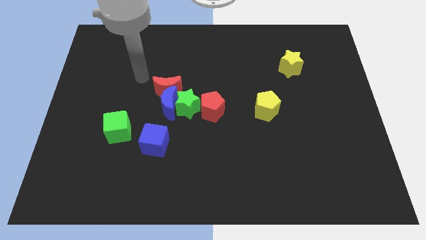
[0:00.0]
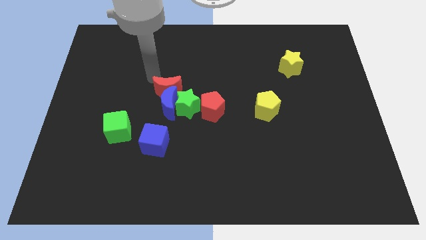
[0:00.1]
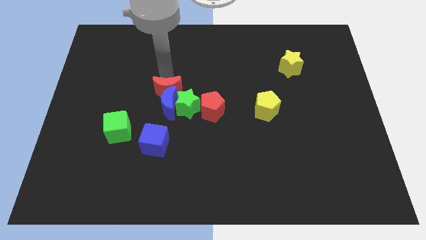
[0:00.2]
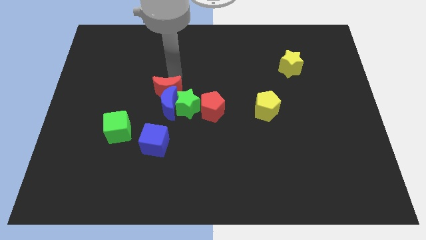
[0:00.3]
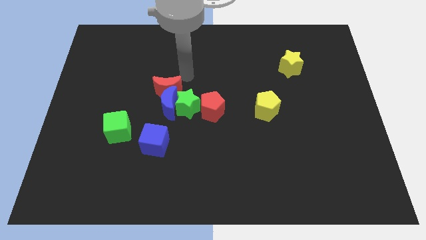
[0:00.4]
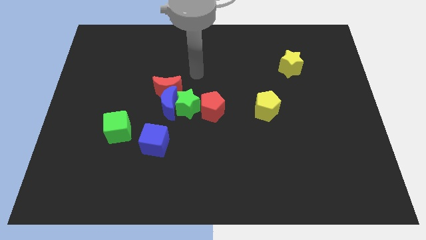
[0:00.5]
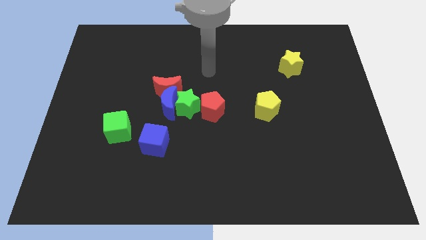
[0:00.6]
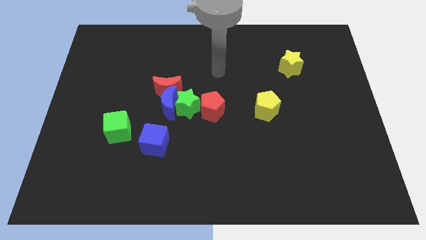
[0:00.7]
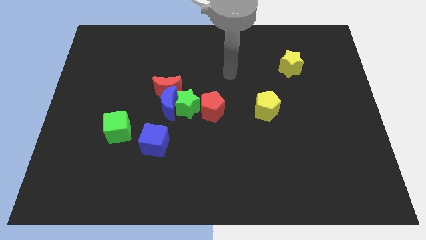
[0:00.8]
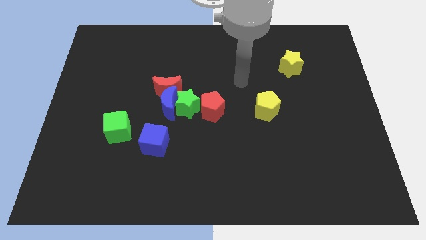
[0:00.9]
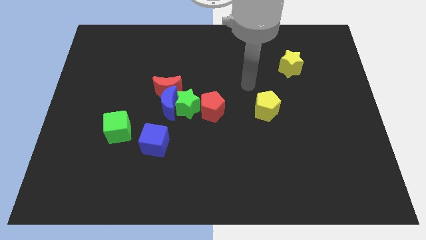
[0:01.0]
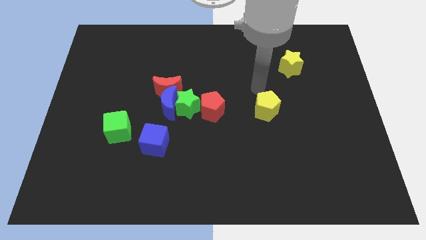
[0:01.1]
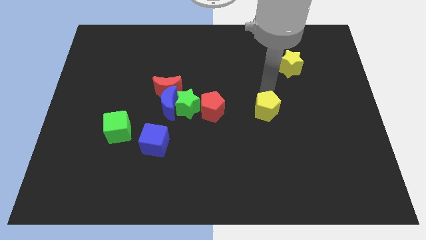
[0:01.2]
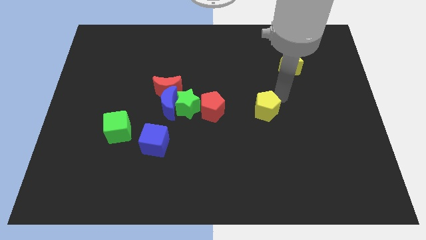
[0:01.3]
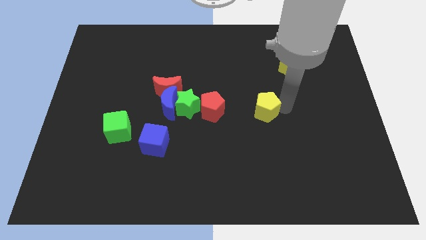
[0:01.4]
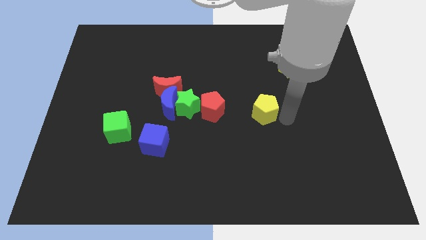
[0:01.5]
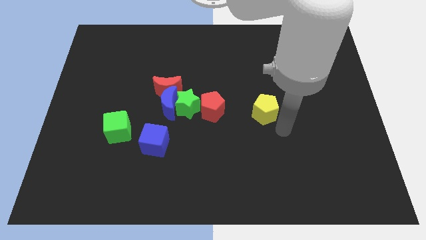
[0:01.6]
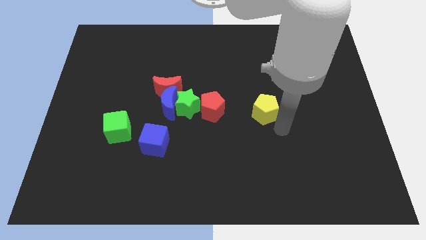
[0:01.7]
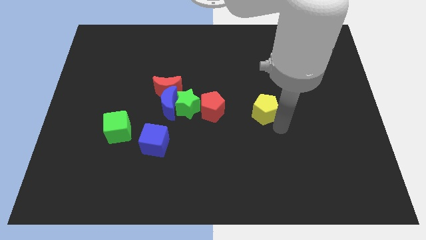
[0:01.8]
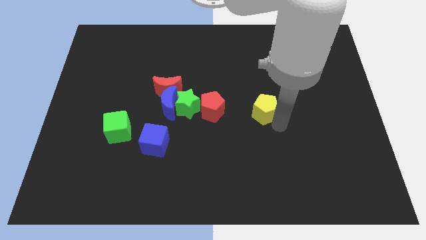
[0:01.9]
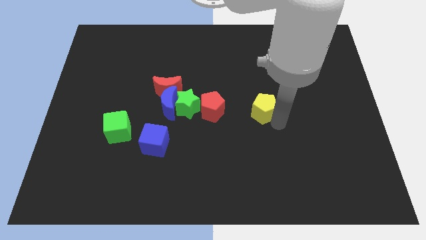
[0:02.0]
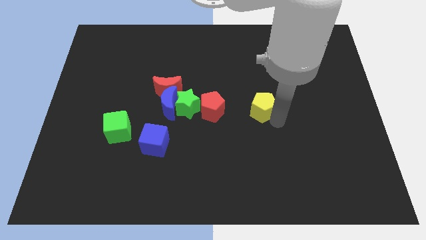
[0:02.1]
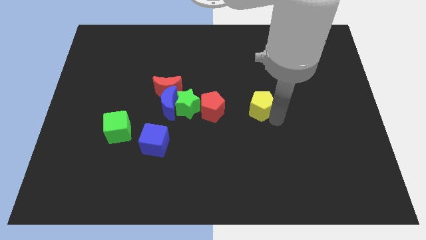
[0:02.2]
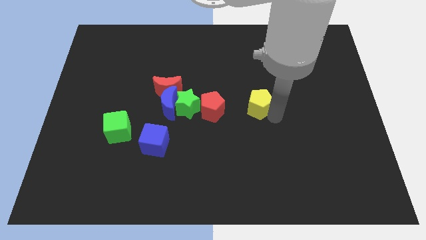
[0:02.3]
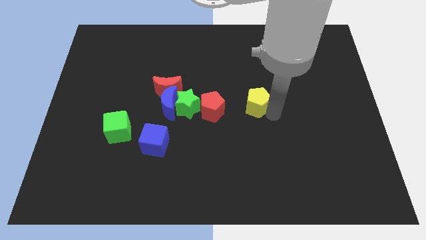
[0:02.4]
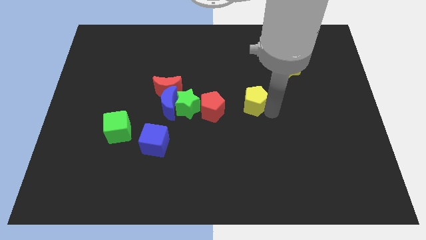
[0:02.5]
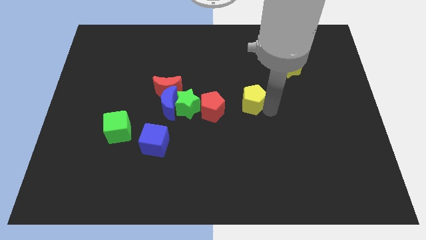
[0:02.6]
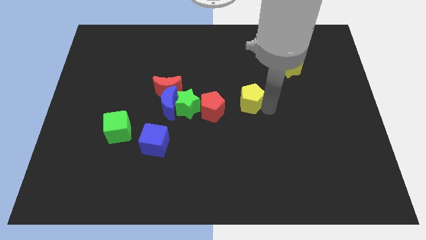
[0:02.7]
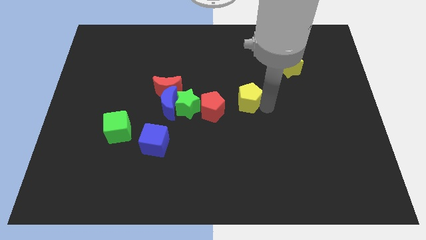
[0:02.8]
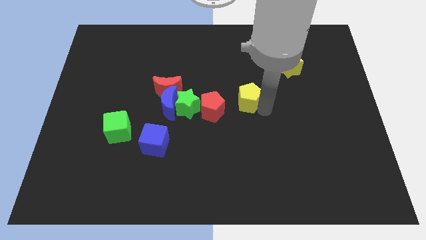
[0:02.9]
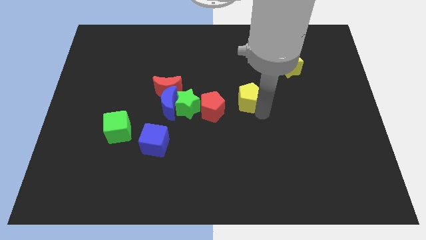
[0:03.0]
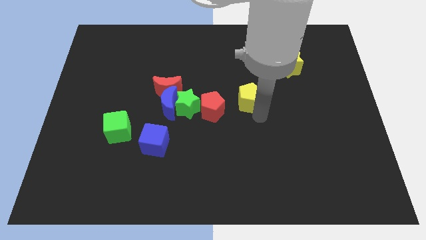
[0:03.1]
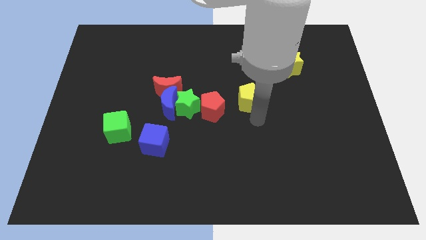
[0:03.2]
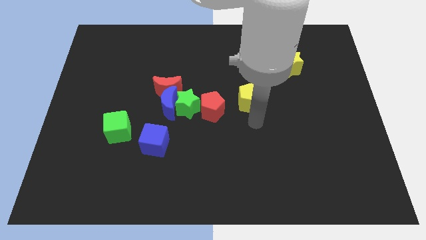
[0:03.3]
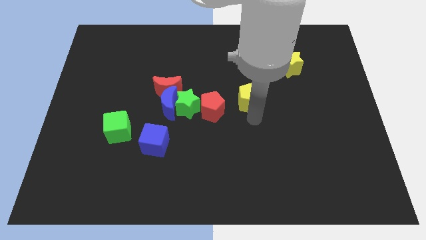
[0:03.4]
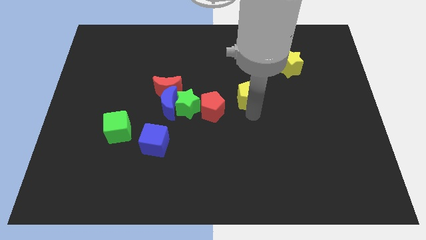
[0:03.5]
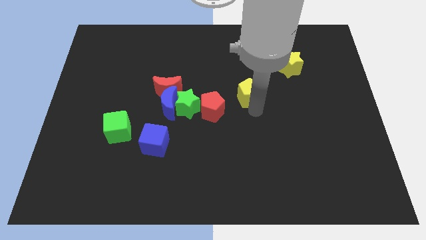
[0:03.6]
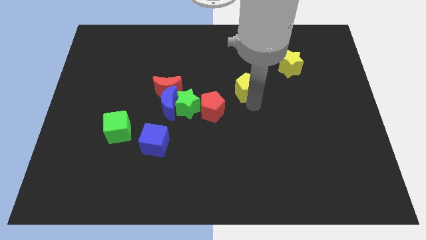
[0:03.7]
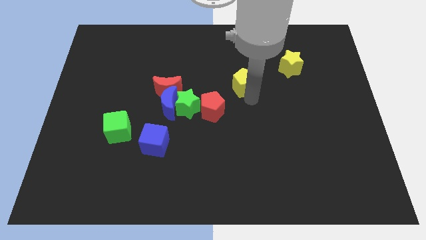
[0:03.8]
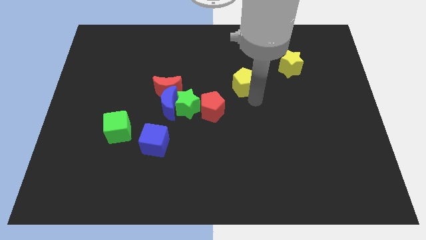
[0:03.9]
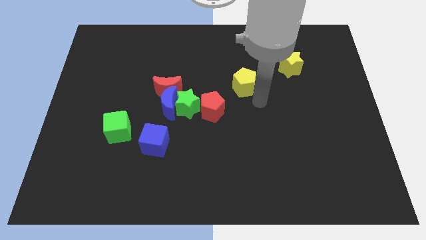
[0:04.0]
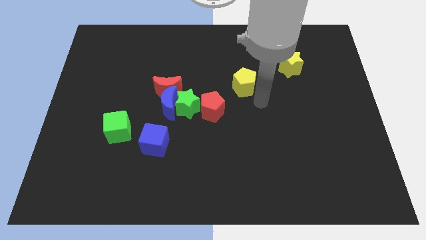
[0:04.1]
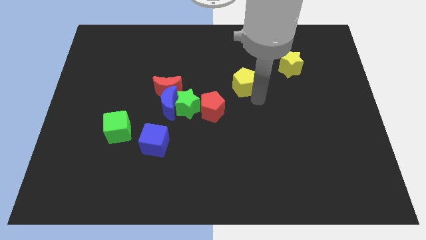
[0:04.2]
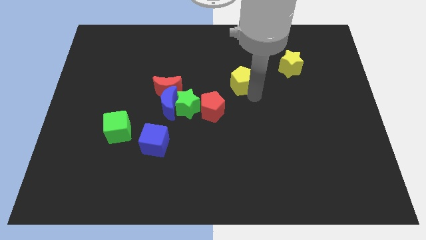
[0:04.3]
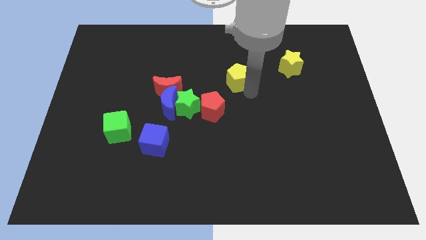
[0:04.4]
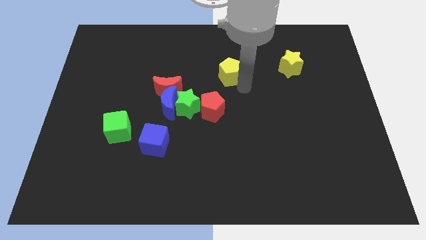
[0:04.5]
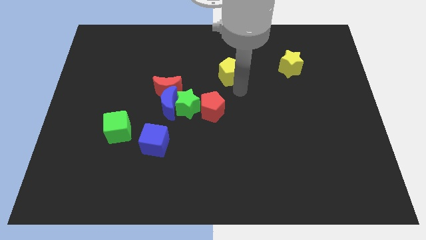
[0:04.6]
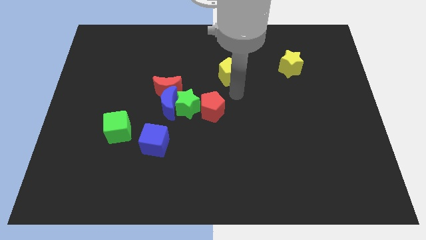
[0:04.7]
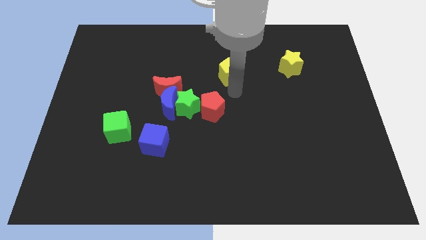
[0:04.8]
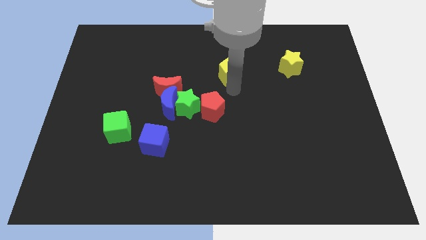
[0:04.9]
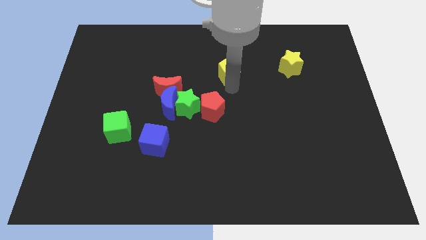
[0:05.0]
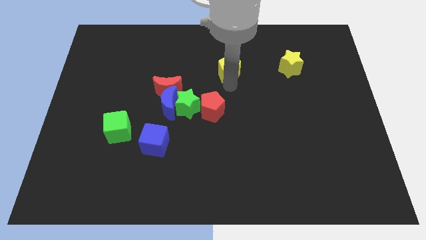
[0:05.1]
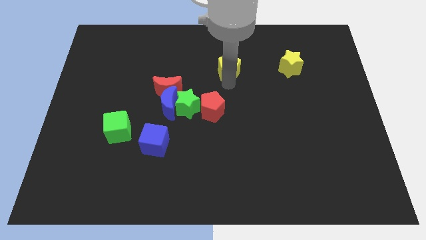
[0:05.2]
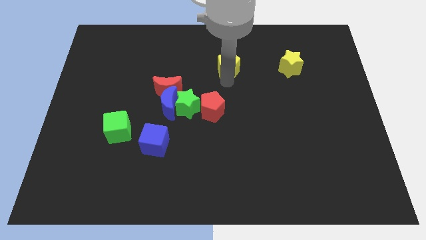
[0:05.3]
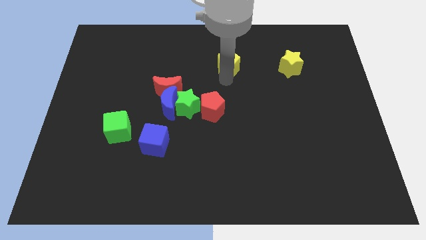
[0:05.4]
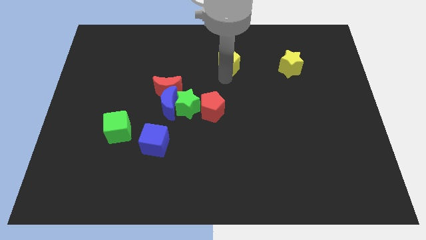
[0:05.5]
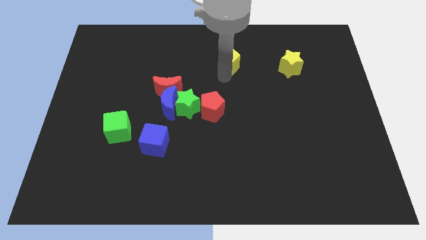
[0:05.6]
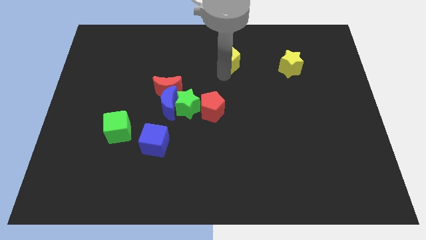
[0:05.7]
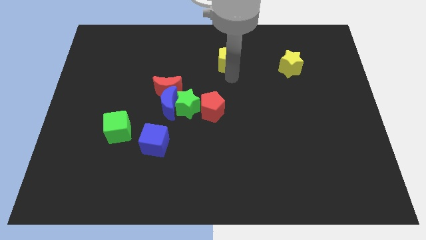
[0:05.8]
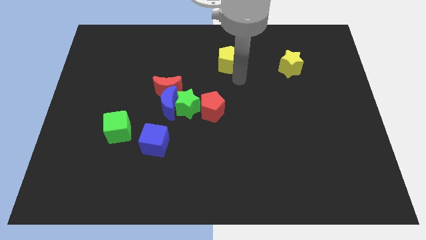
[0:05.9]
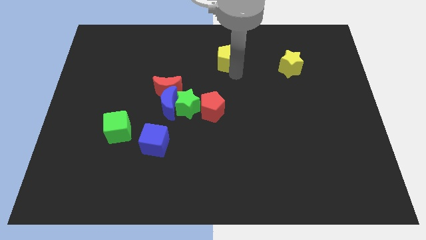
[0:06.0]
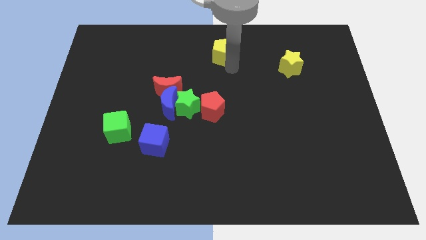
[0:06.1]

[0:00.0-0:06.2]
push the yellow pentagon to the towards your base
